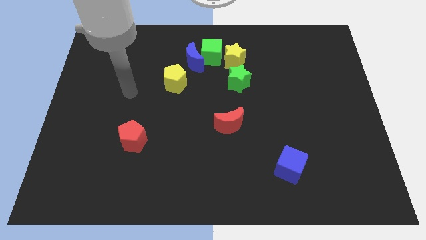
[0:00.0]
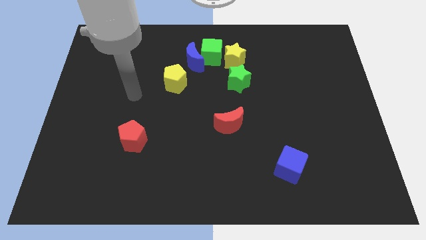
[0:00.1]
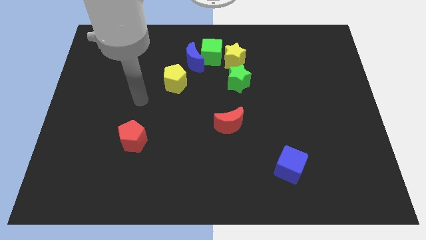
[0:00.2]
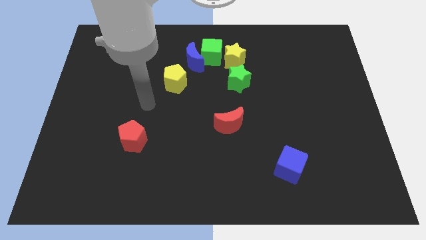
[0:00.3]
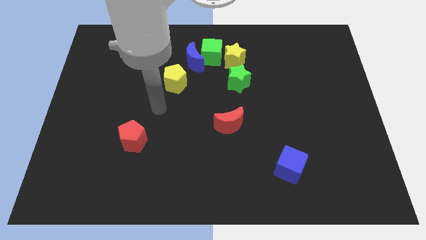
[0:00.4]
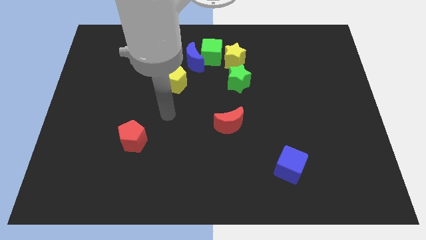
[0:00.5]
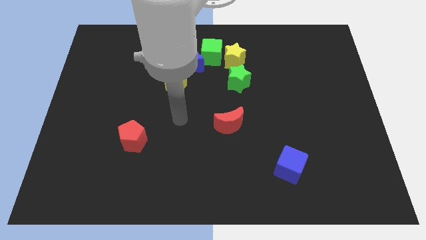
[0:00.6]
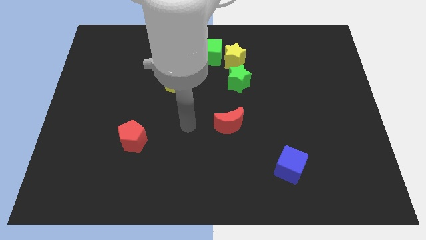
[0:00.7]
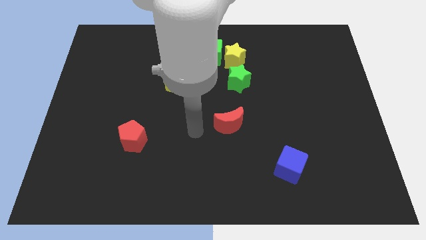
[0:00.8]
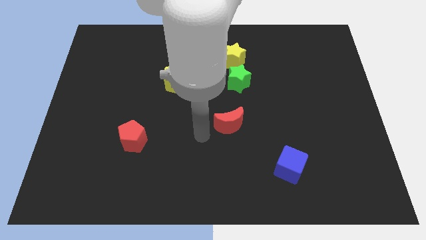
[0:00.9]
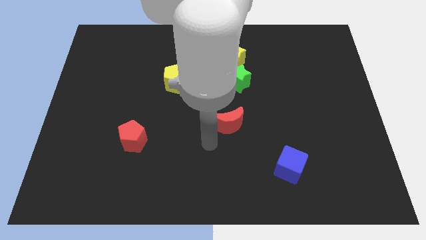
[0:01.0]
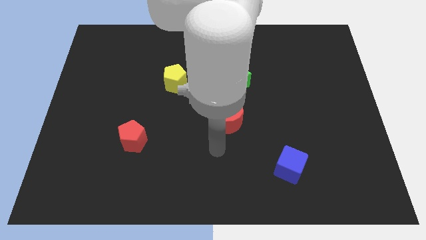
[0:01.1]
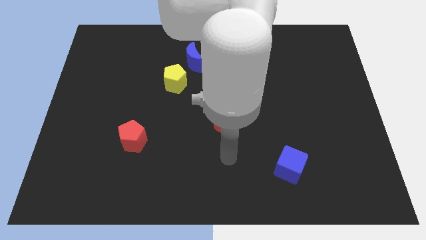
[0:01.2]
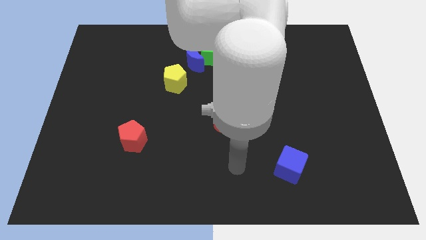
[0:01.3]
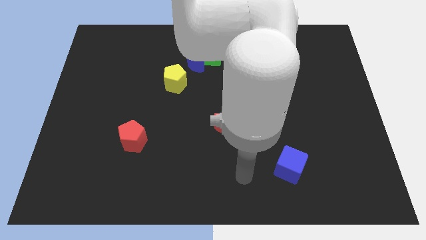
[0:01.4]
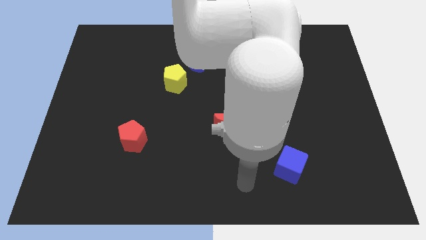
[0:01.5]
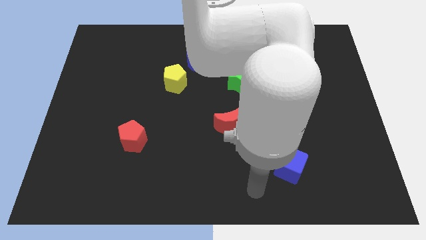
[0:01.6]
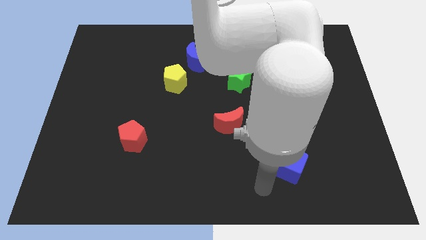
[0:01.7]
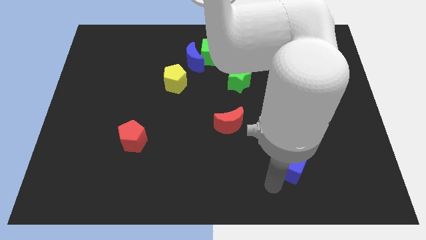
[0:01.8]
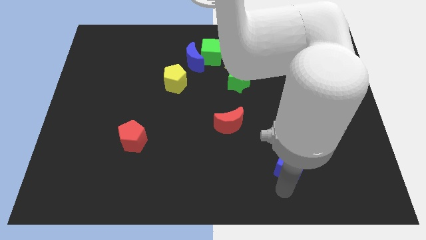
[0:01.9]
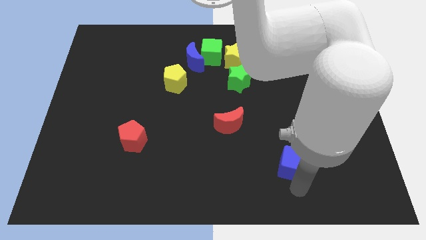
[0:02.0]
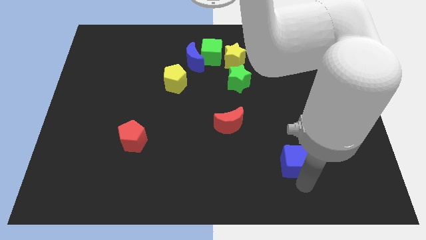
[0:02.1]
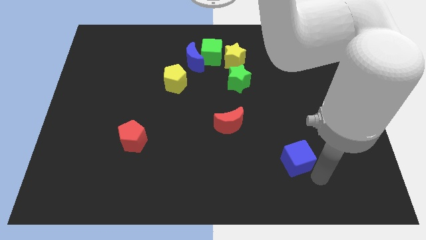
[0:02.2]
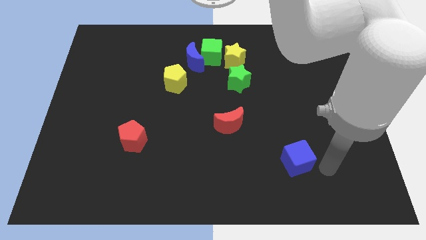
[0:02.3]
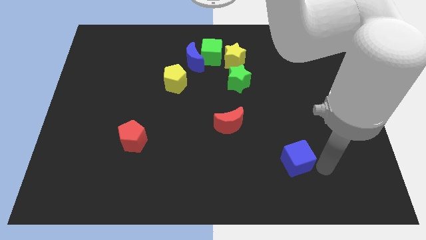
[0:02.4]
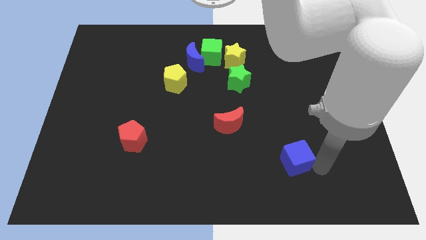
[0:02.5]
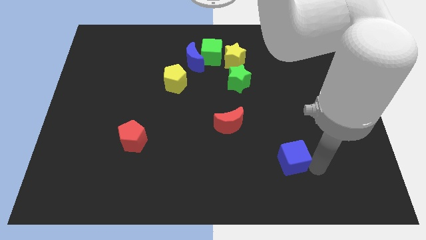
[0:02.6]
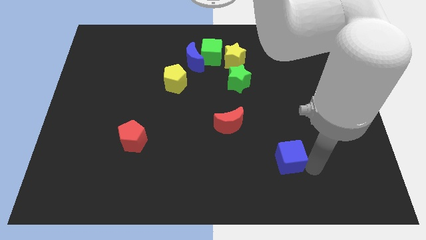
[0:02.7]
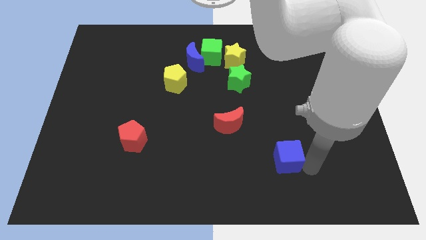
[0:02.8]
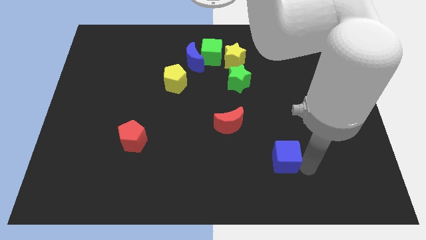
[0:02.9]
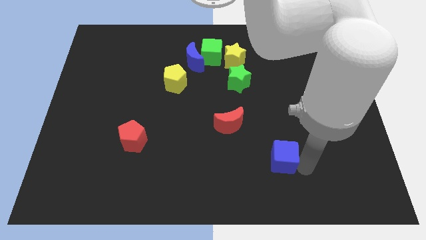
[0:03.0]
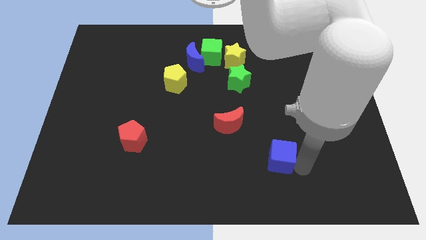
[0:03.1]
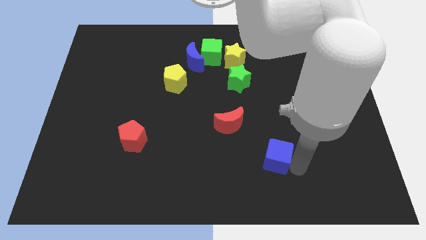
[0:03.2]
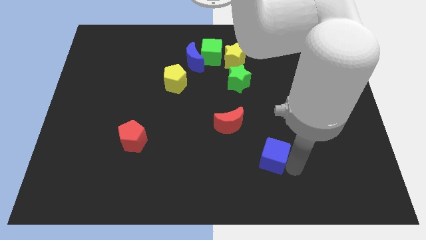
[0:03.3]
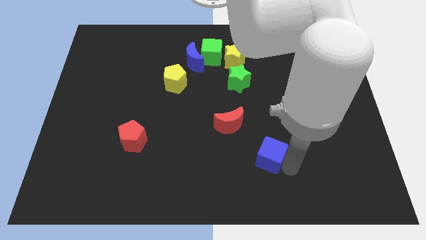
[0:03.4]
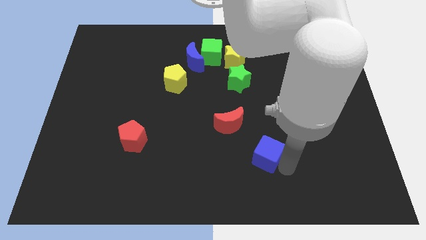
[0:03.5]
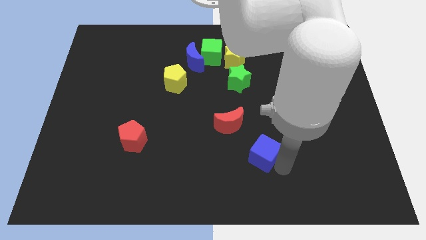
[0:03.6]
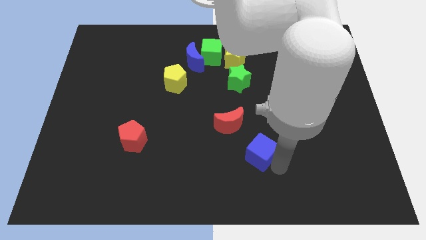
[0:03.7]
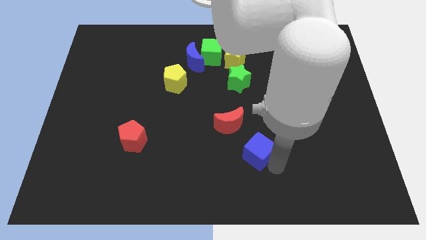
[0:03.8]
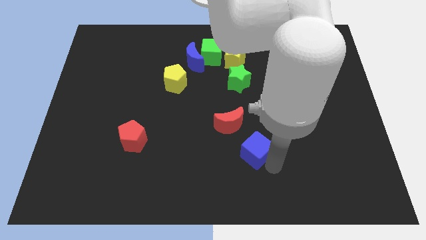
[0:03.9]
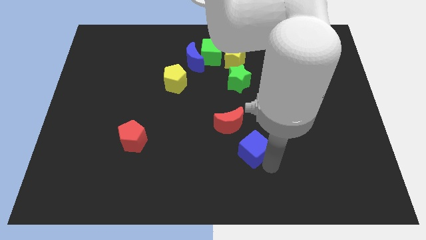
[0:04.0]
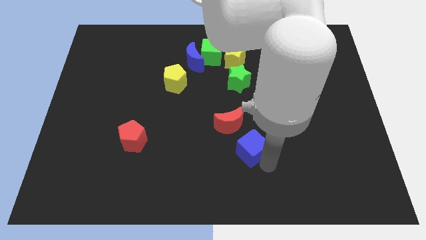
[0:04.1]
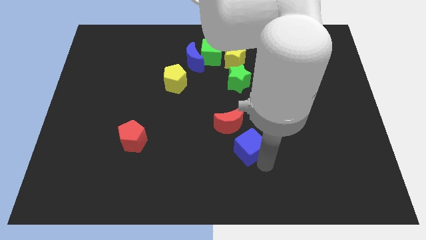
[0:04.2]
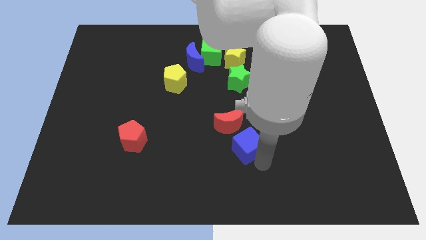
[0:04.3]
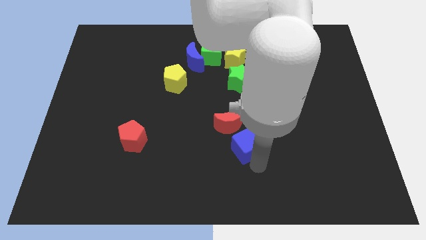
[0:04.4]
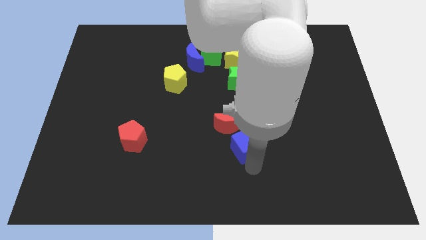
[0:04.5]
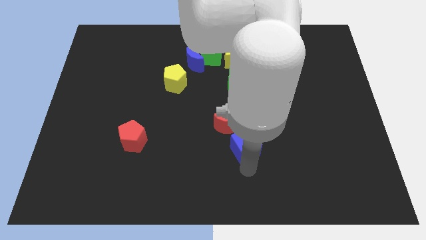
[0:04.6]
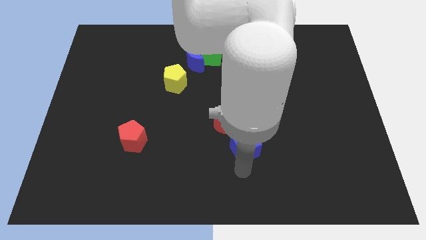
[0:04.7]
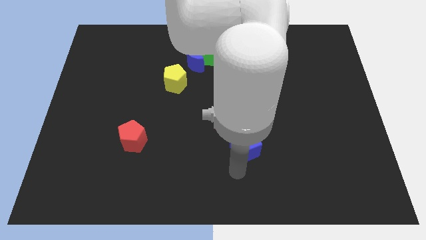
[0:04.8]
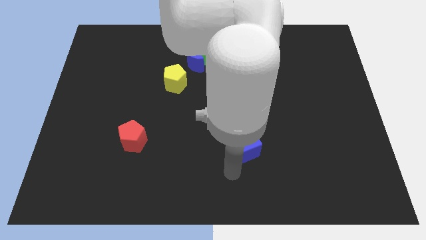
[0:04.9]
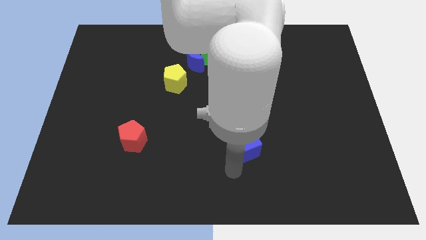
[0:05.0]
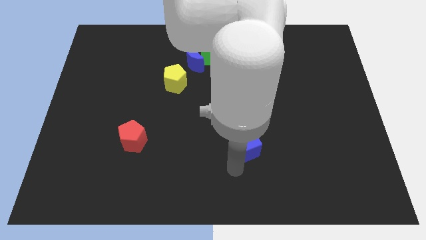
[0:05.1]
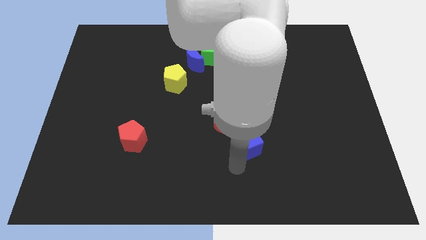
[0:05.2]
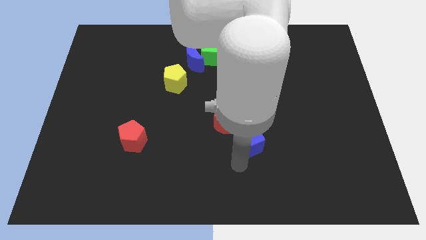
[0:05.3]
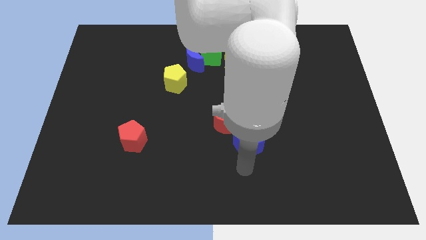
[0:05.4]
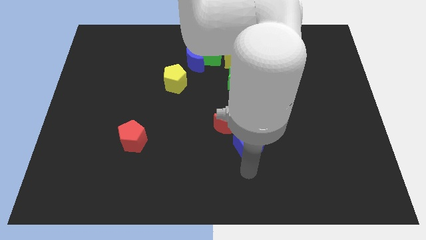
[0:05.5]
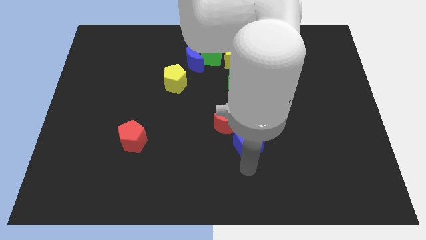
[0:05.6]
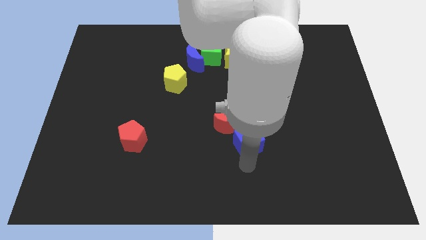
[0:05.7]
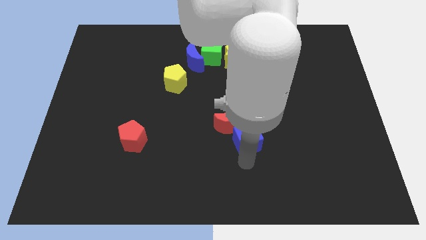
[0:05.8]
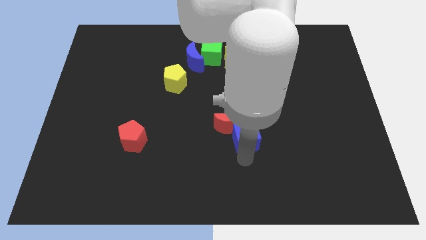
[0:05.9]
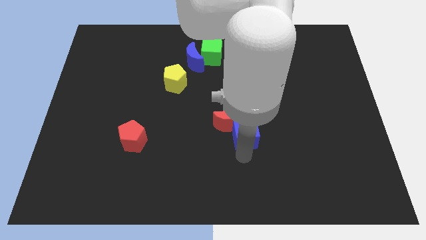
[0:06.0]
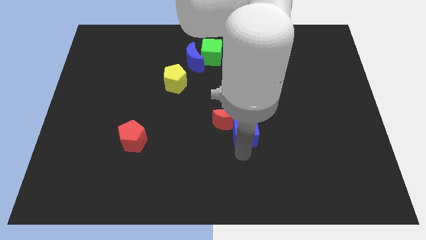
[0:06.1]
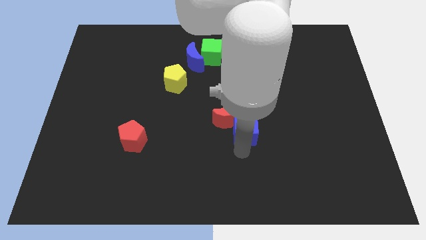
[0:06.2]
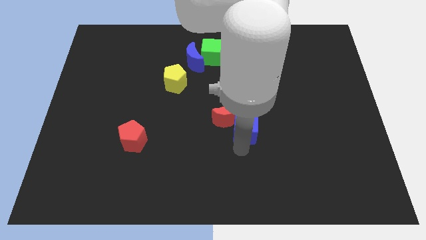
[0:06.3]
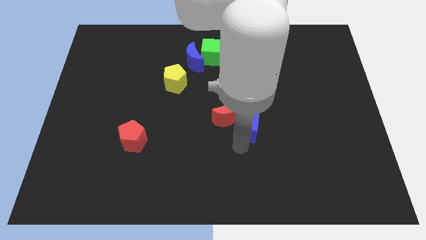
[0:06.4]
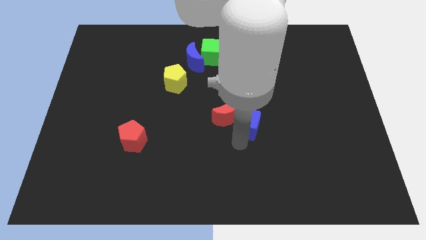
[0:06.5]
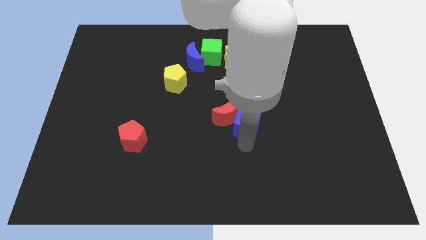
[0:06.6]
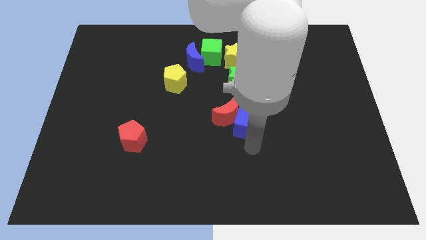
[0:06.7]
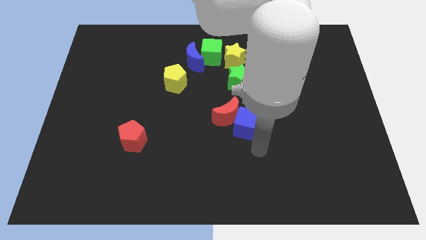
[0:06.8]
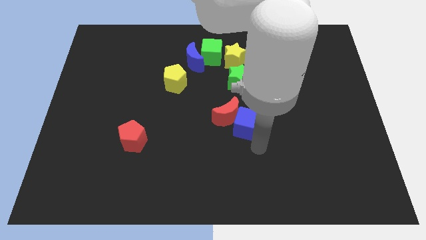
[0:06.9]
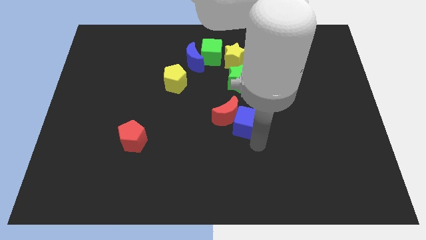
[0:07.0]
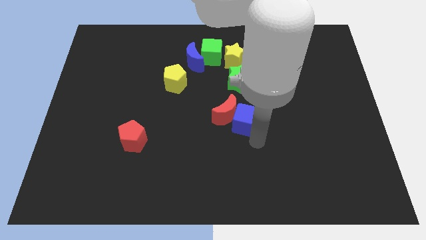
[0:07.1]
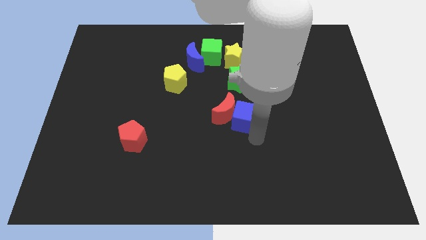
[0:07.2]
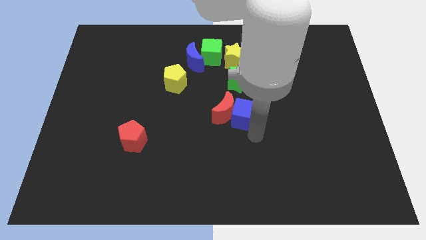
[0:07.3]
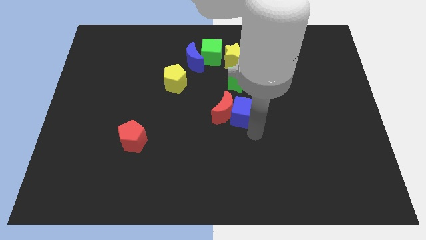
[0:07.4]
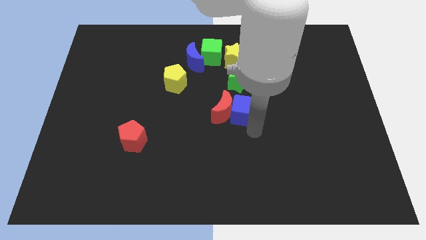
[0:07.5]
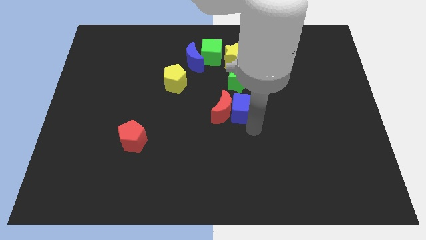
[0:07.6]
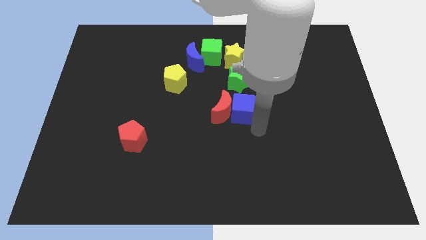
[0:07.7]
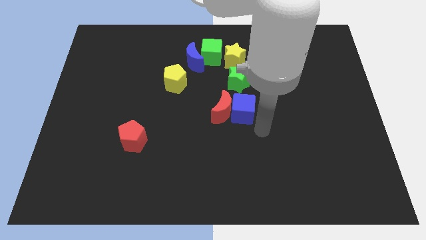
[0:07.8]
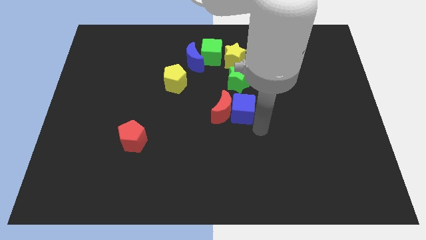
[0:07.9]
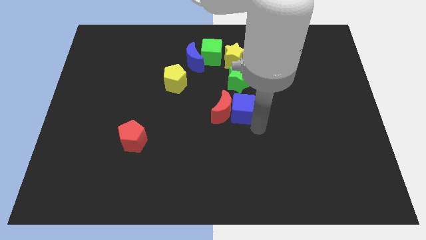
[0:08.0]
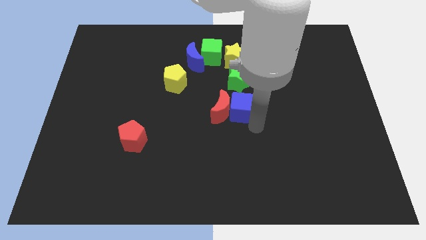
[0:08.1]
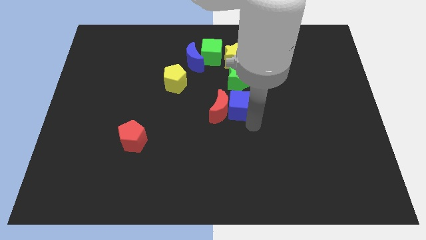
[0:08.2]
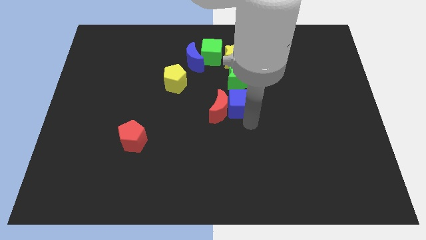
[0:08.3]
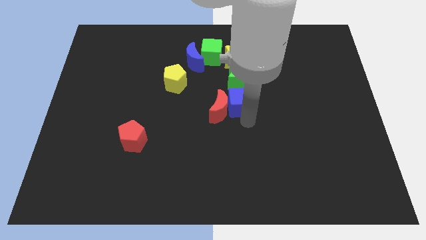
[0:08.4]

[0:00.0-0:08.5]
push the blue cube to the bottom left side of the green star
